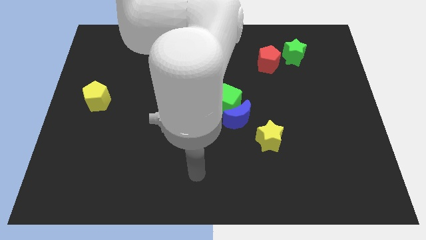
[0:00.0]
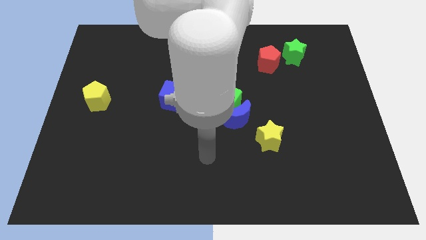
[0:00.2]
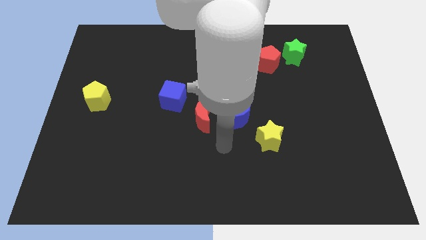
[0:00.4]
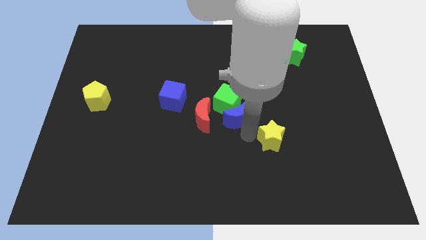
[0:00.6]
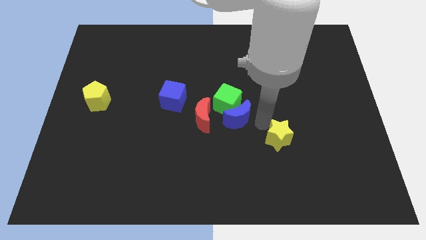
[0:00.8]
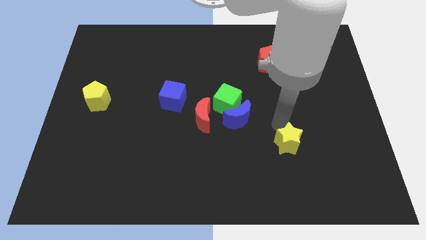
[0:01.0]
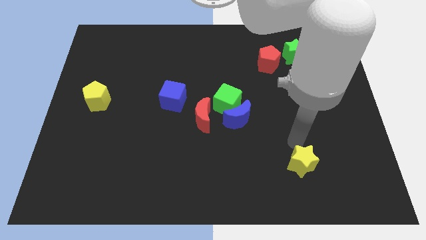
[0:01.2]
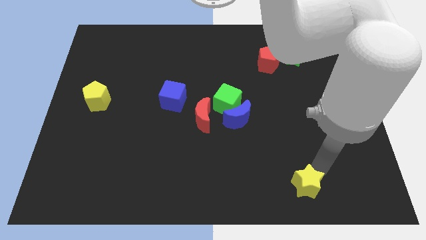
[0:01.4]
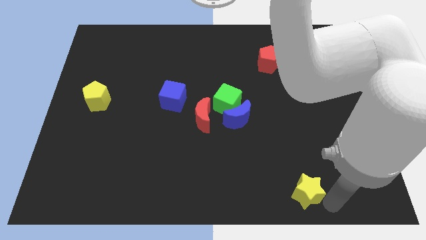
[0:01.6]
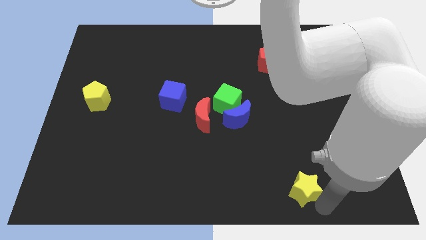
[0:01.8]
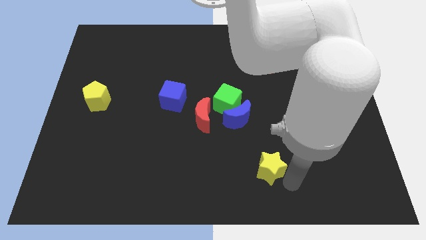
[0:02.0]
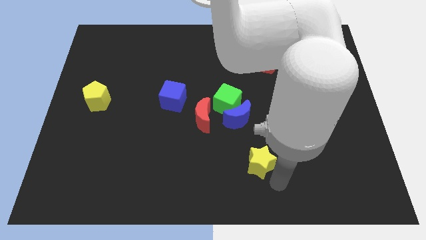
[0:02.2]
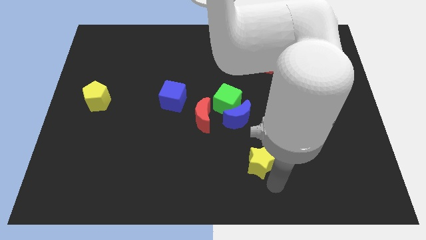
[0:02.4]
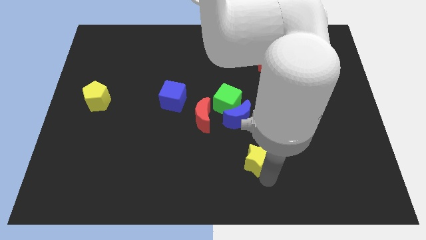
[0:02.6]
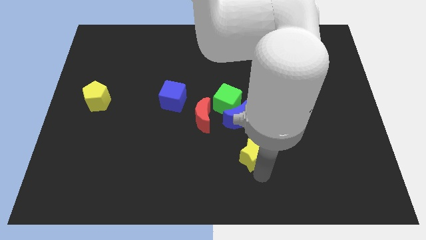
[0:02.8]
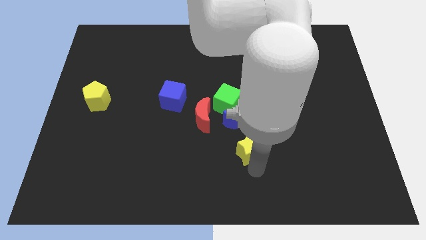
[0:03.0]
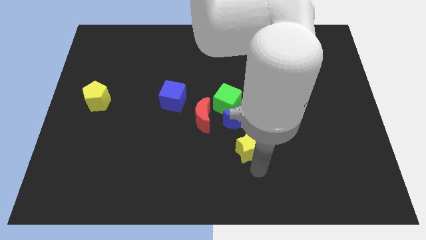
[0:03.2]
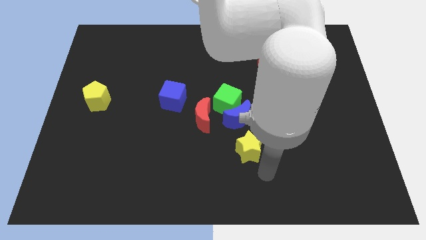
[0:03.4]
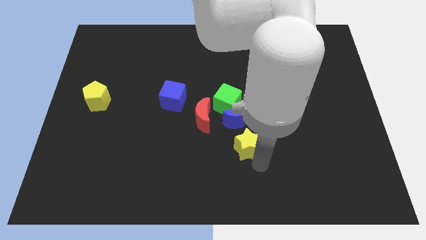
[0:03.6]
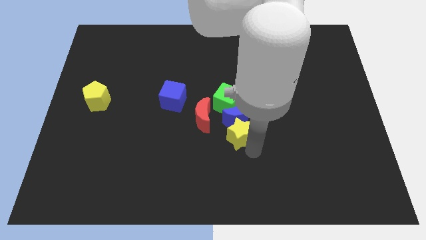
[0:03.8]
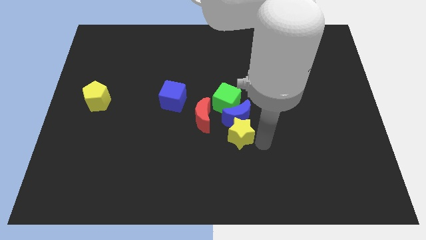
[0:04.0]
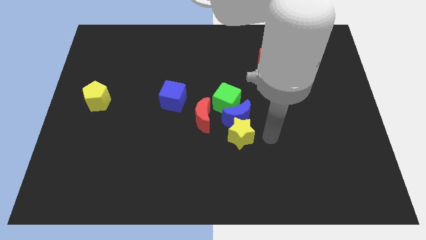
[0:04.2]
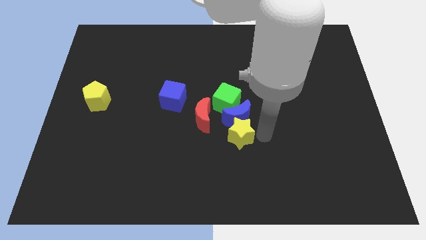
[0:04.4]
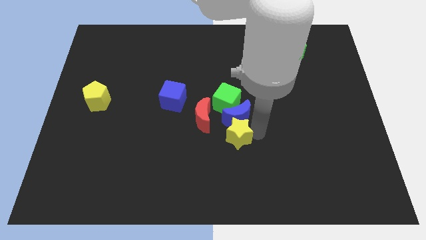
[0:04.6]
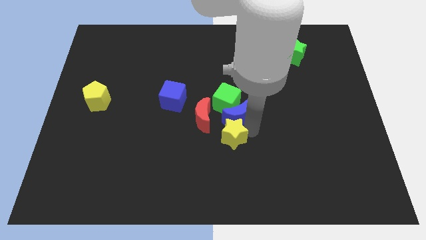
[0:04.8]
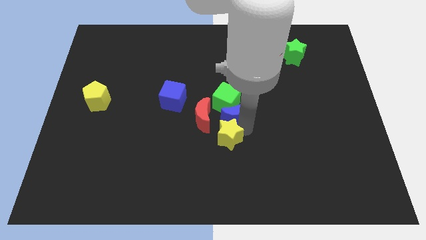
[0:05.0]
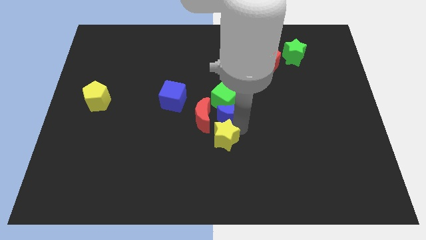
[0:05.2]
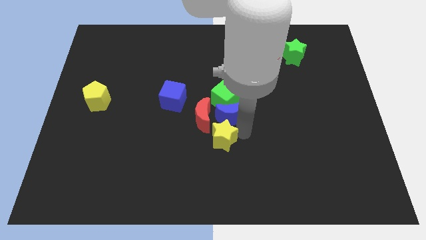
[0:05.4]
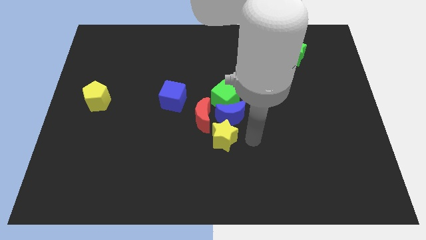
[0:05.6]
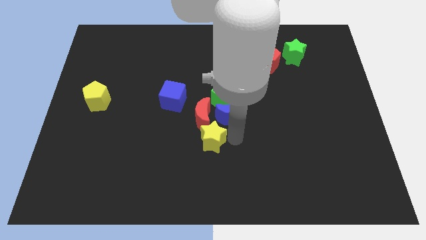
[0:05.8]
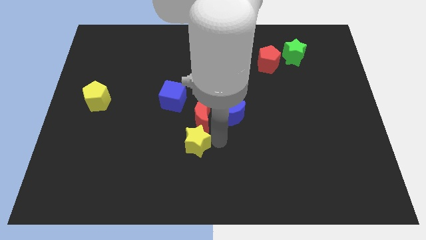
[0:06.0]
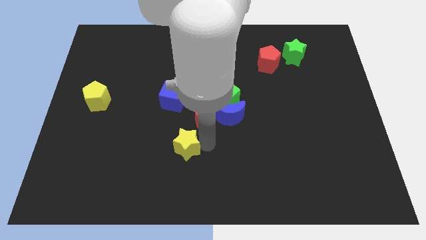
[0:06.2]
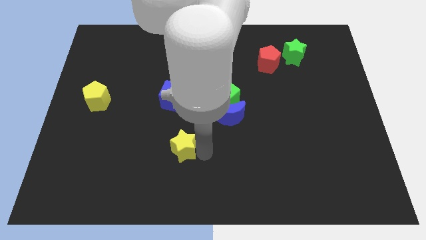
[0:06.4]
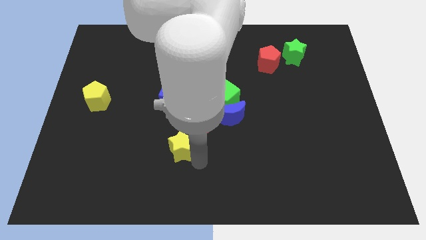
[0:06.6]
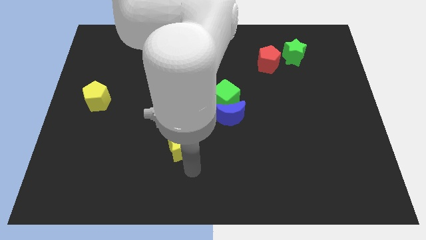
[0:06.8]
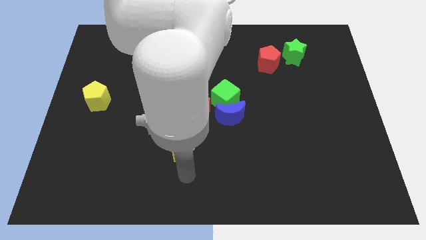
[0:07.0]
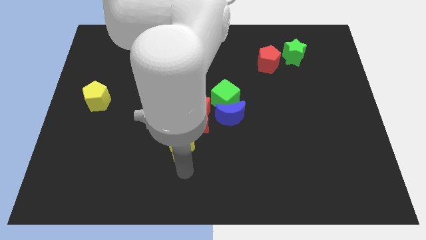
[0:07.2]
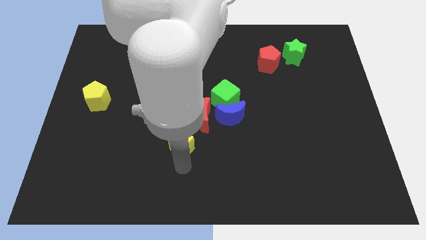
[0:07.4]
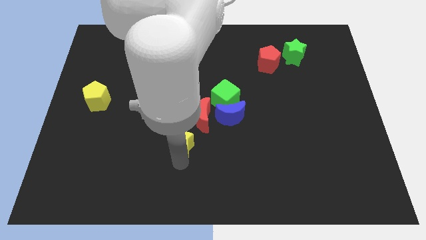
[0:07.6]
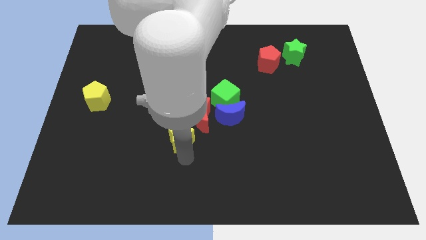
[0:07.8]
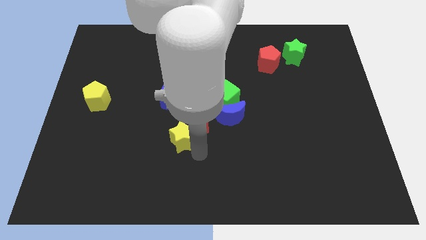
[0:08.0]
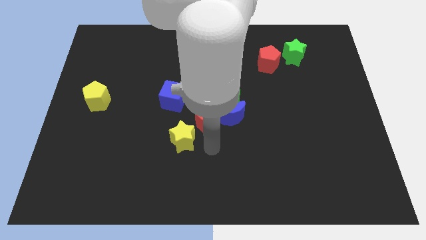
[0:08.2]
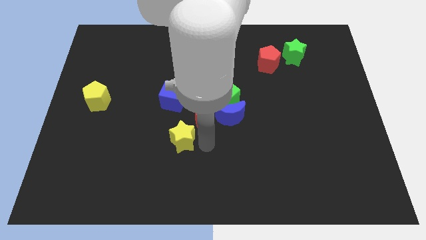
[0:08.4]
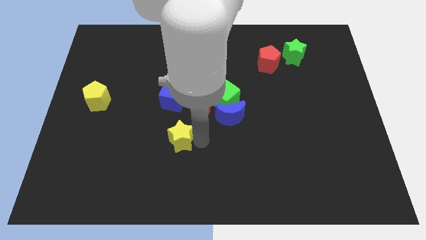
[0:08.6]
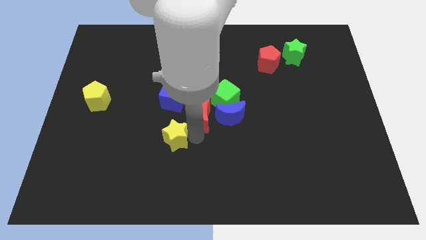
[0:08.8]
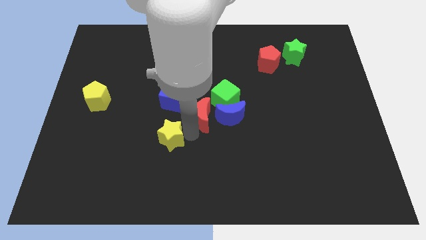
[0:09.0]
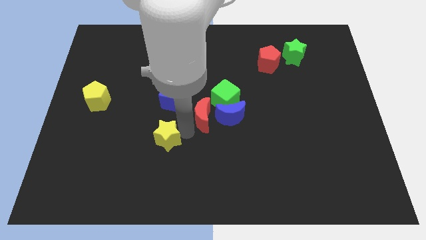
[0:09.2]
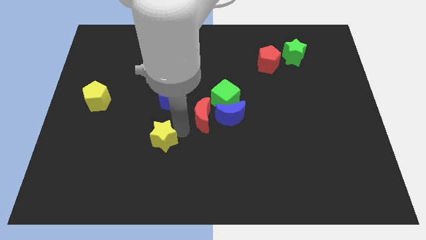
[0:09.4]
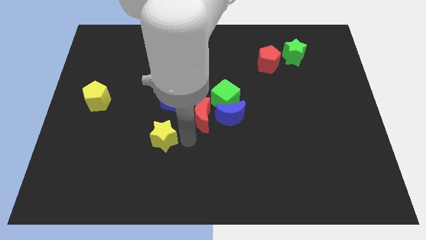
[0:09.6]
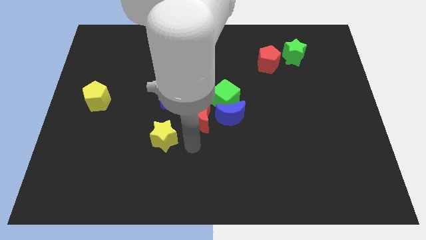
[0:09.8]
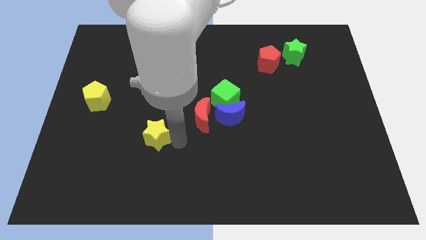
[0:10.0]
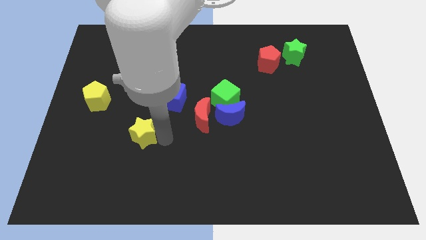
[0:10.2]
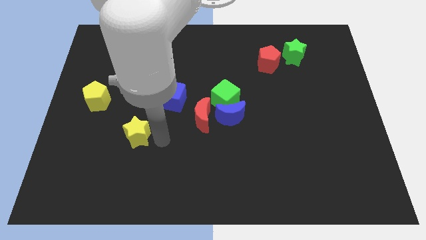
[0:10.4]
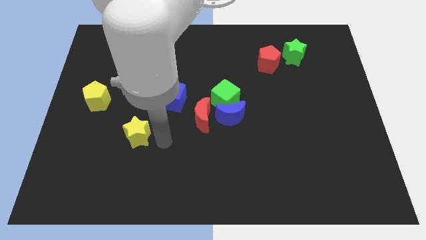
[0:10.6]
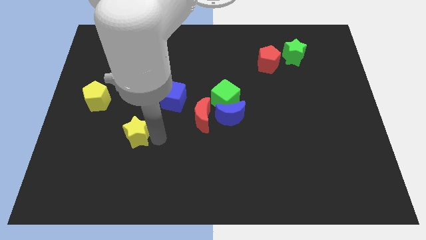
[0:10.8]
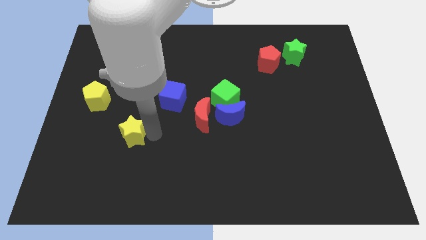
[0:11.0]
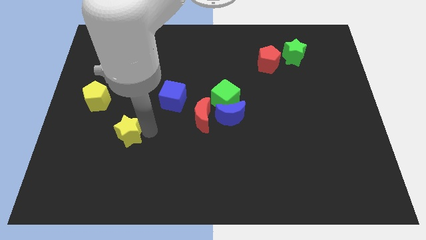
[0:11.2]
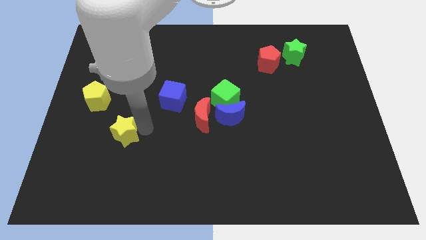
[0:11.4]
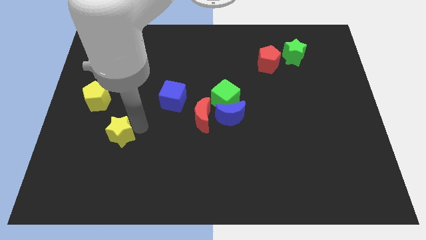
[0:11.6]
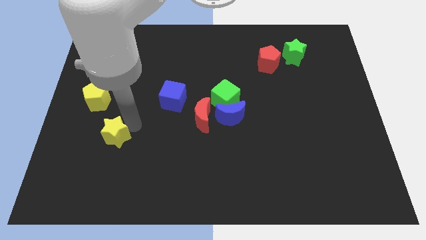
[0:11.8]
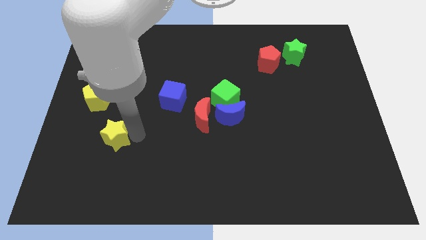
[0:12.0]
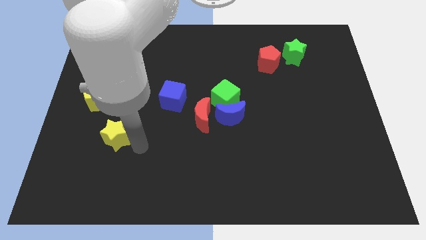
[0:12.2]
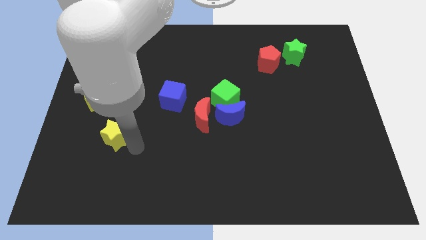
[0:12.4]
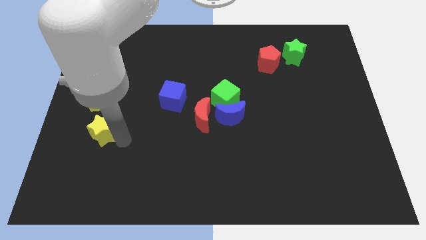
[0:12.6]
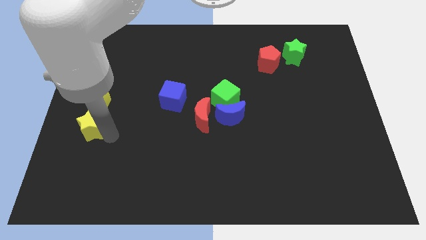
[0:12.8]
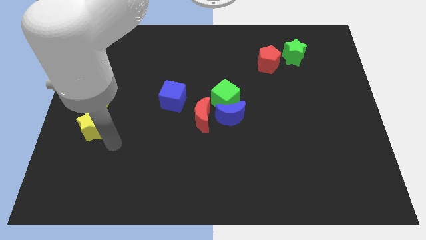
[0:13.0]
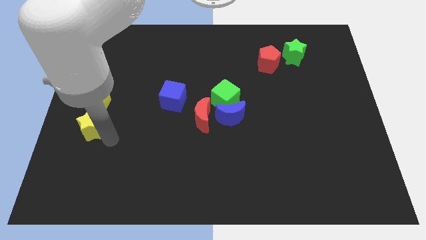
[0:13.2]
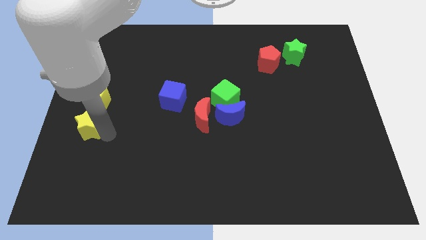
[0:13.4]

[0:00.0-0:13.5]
slide the yellow star to the left side of the board

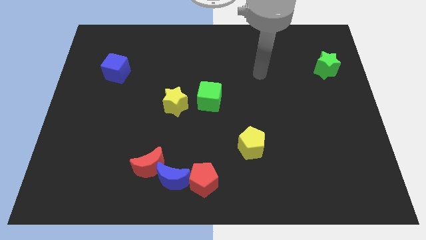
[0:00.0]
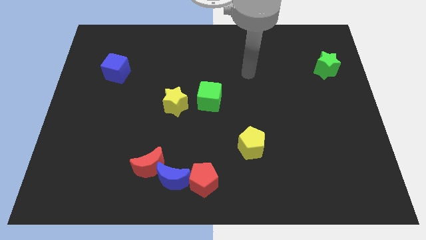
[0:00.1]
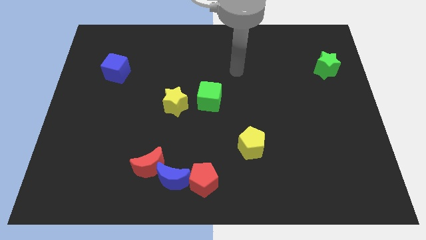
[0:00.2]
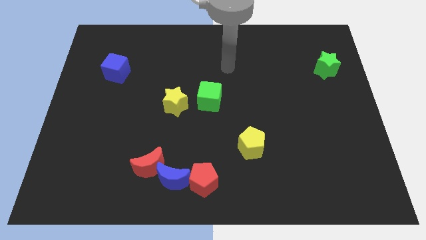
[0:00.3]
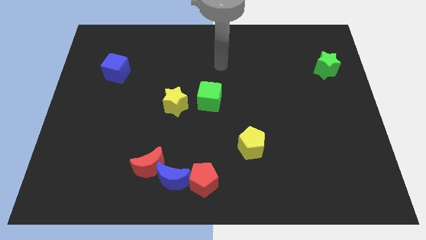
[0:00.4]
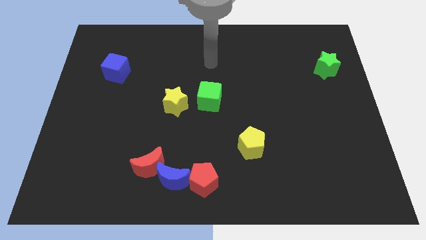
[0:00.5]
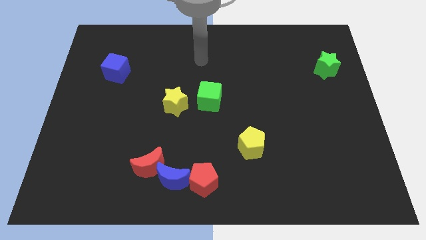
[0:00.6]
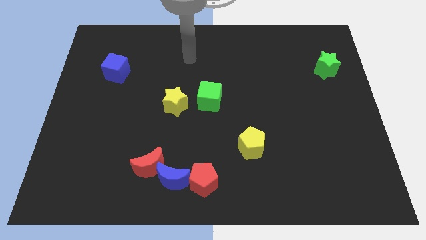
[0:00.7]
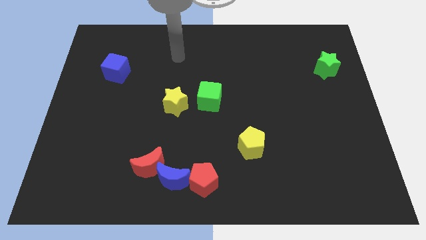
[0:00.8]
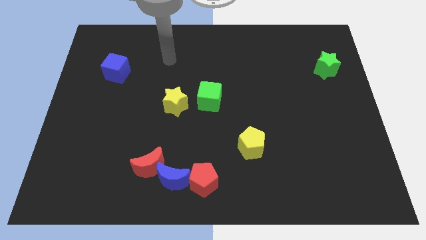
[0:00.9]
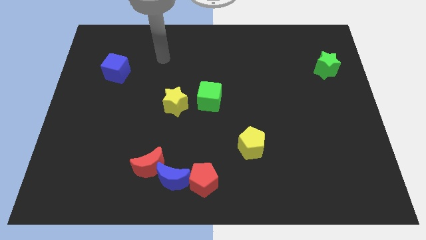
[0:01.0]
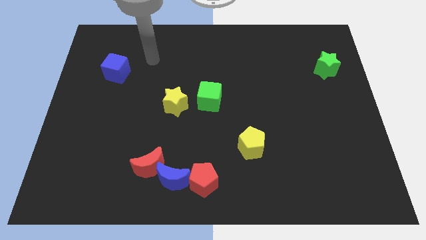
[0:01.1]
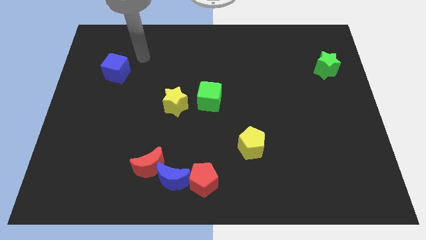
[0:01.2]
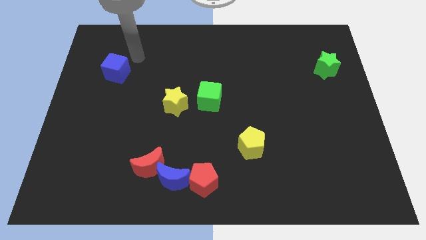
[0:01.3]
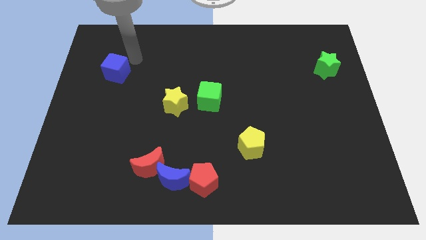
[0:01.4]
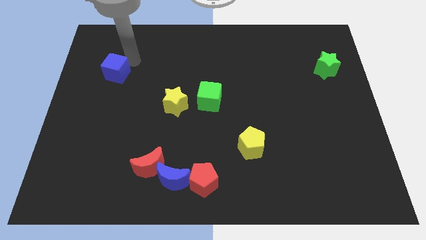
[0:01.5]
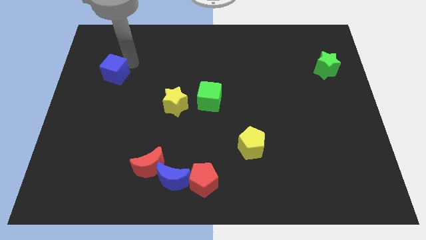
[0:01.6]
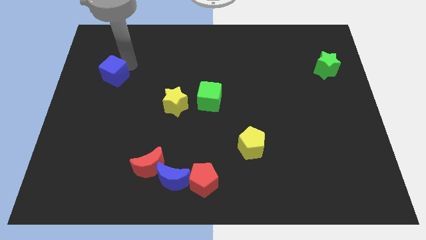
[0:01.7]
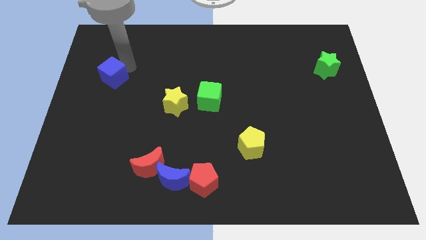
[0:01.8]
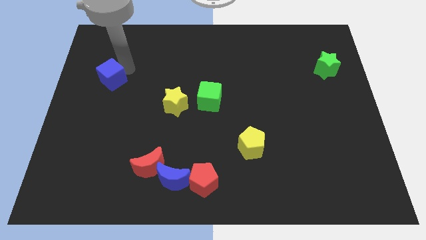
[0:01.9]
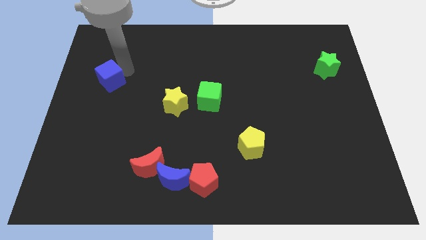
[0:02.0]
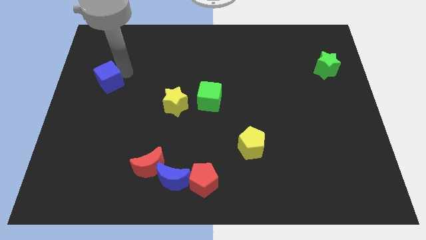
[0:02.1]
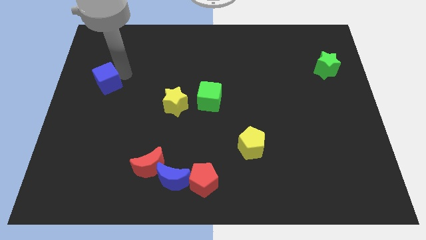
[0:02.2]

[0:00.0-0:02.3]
slide the blue cube to the center left
